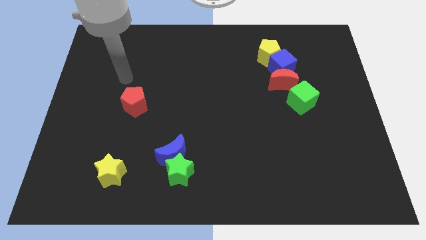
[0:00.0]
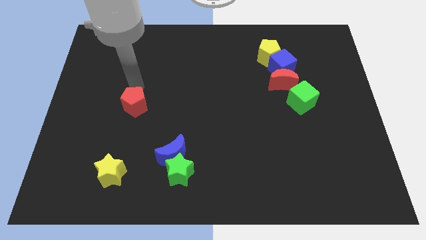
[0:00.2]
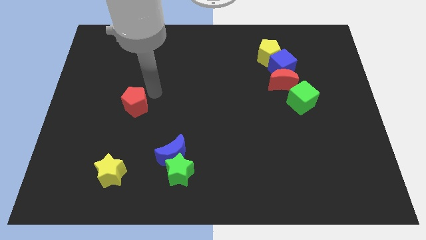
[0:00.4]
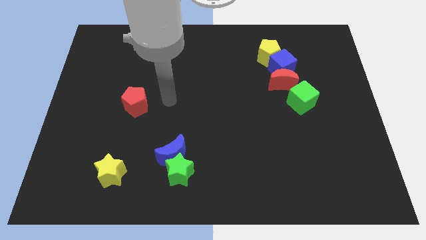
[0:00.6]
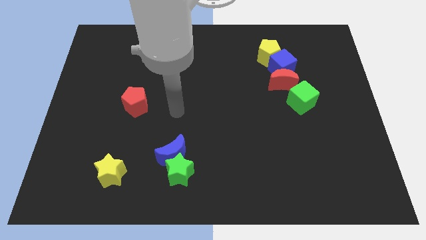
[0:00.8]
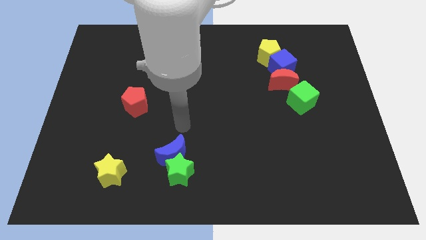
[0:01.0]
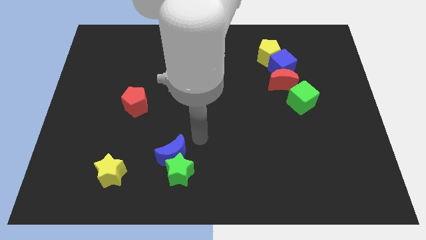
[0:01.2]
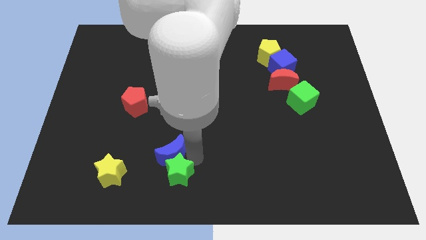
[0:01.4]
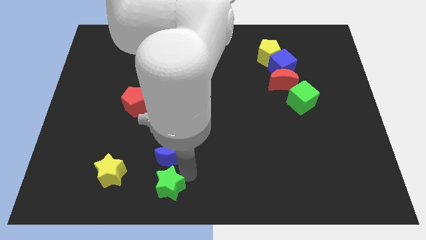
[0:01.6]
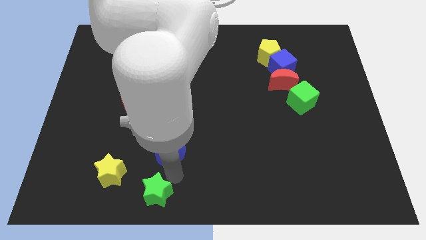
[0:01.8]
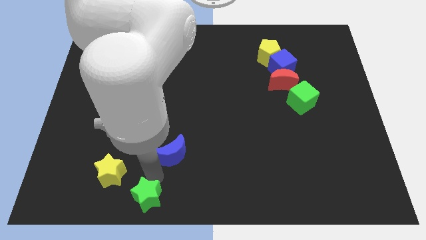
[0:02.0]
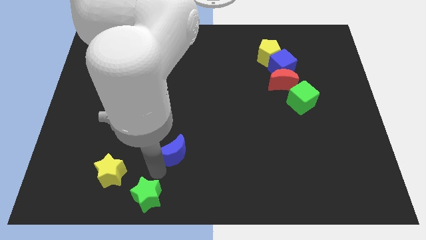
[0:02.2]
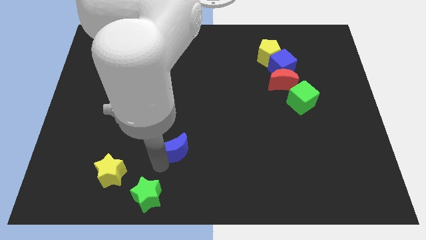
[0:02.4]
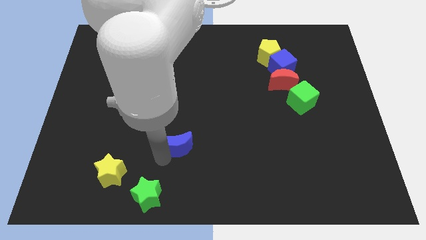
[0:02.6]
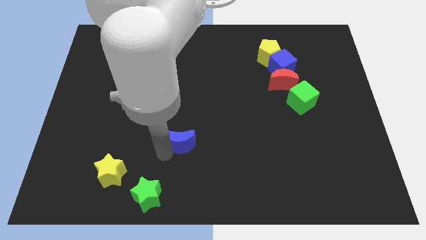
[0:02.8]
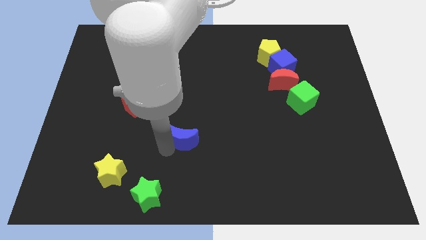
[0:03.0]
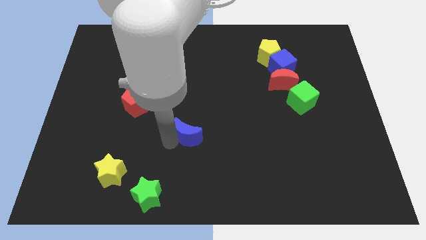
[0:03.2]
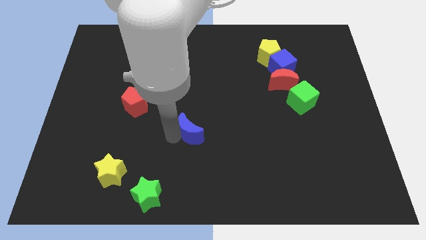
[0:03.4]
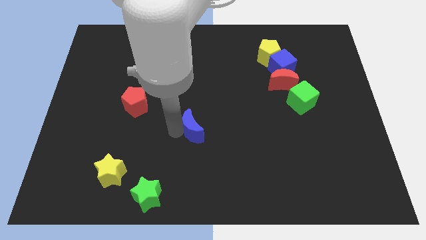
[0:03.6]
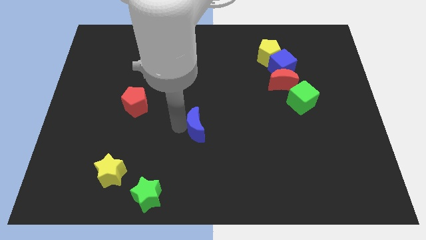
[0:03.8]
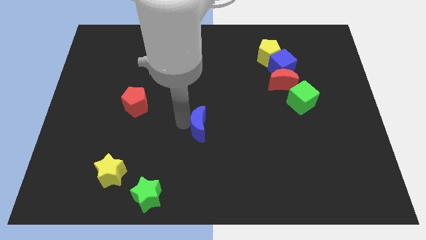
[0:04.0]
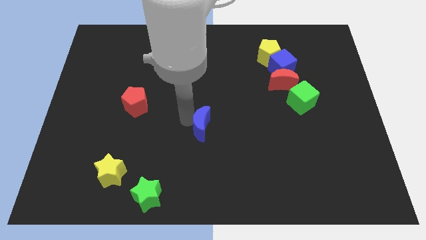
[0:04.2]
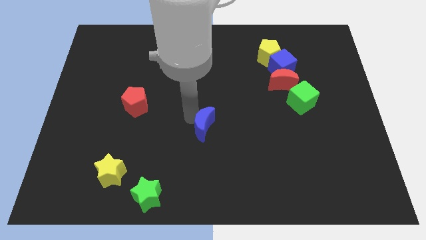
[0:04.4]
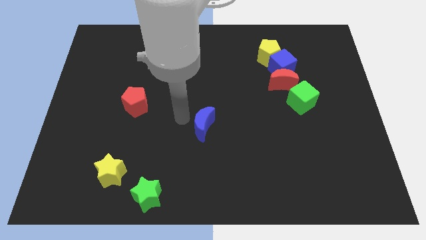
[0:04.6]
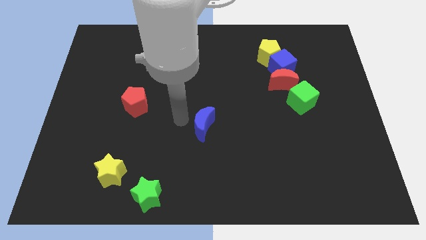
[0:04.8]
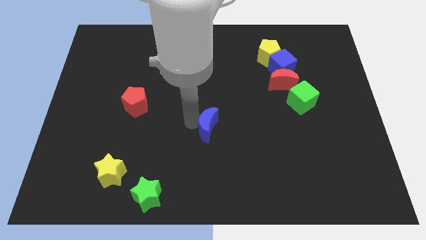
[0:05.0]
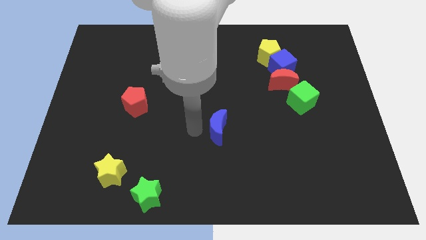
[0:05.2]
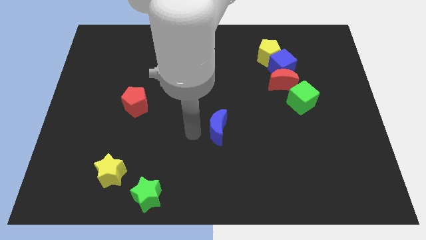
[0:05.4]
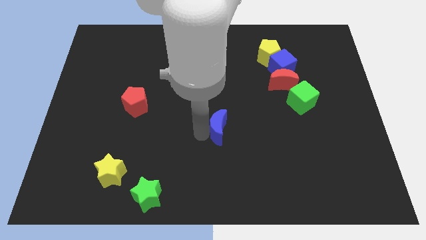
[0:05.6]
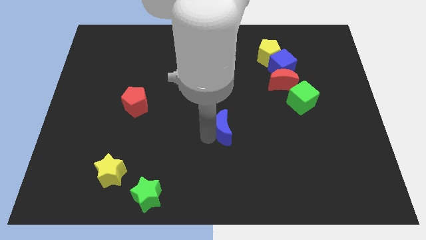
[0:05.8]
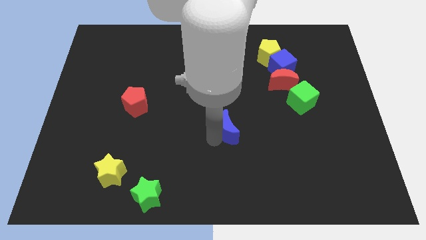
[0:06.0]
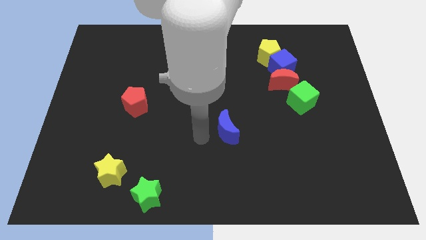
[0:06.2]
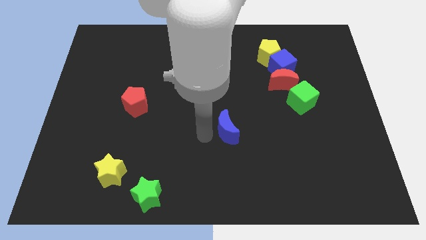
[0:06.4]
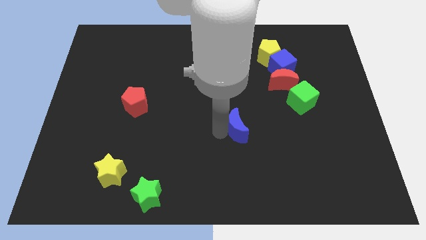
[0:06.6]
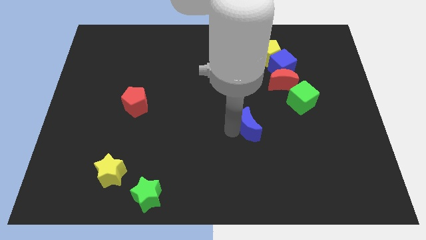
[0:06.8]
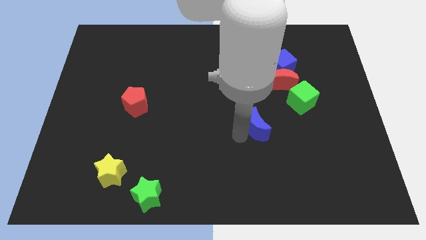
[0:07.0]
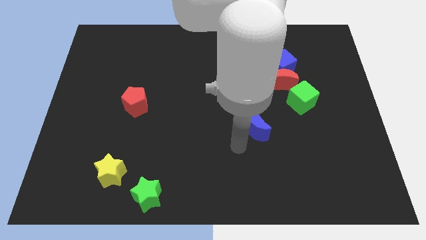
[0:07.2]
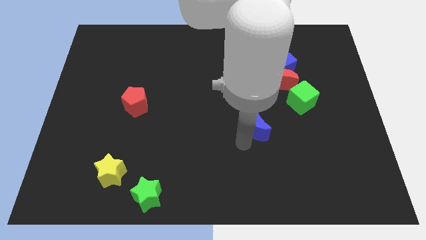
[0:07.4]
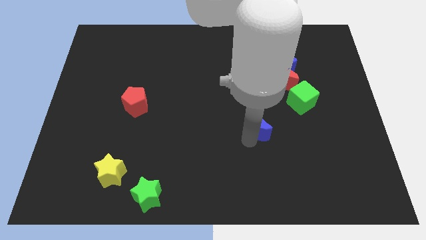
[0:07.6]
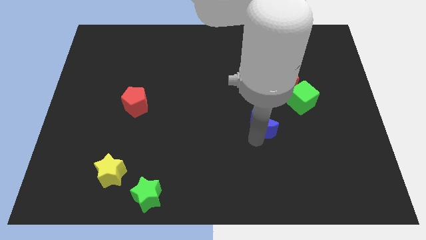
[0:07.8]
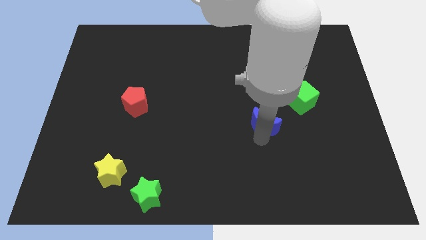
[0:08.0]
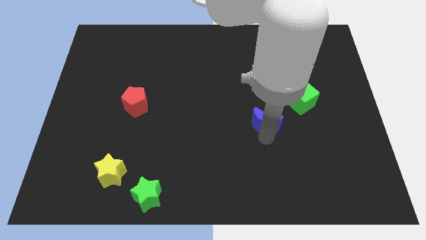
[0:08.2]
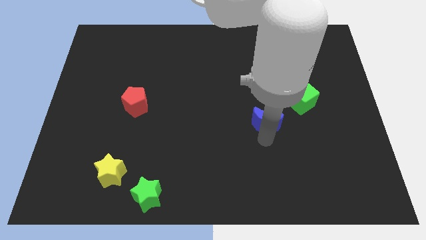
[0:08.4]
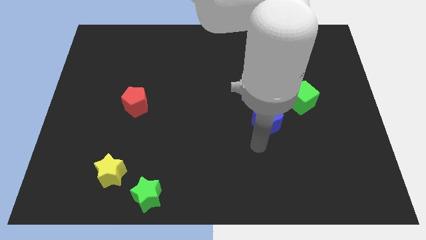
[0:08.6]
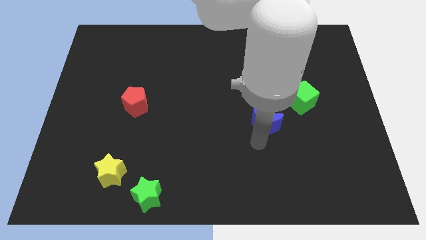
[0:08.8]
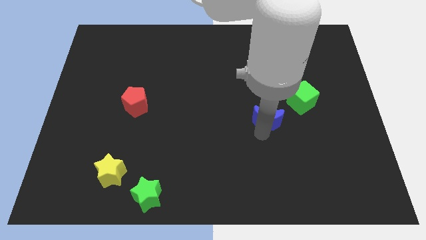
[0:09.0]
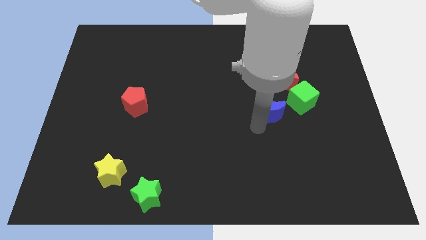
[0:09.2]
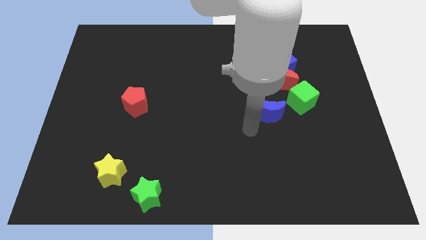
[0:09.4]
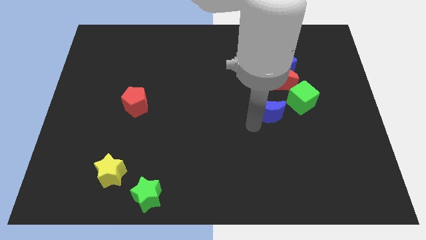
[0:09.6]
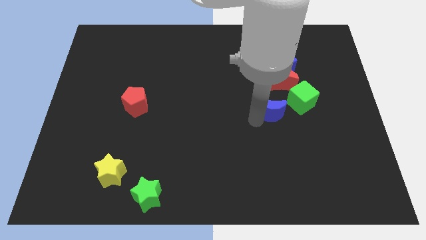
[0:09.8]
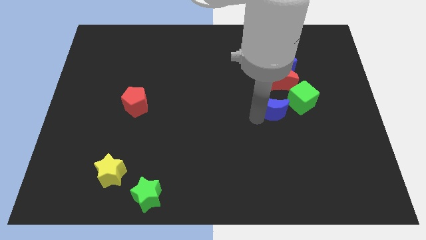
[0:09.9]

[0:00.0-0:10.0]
put the blue moon below the blue cube

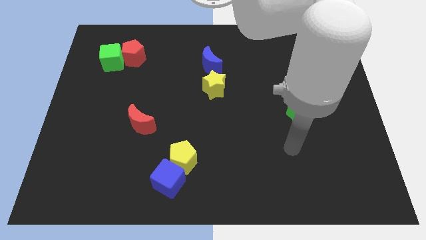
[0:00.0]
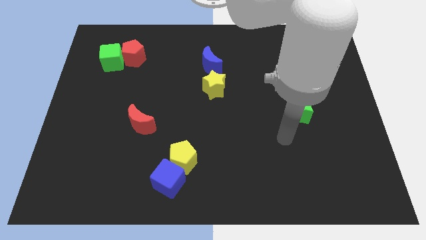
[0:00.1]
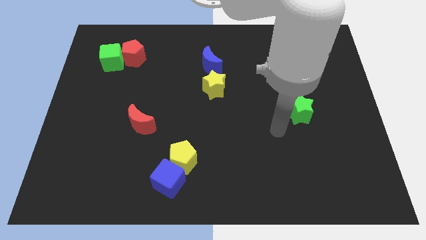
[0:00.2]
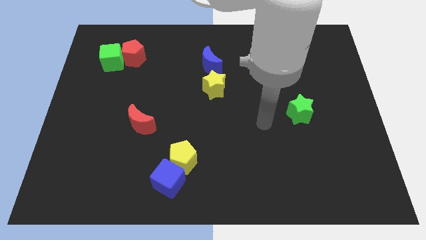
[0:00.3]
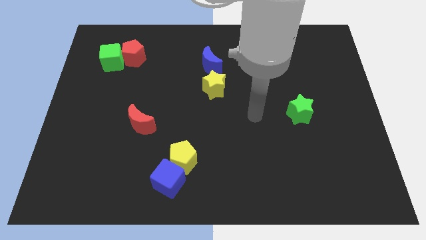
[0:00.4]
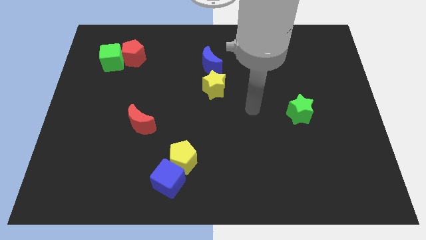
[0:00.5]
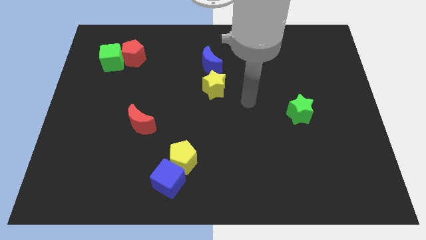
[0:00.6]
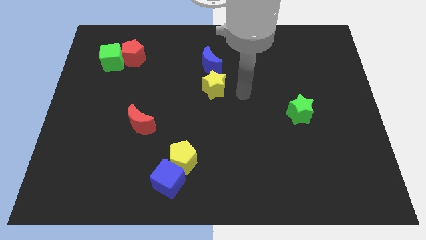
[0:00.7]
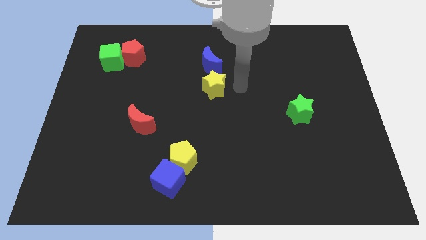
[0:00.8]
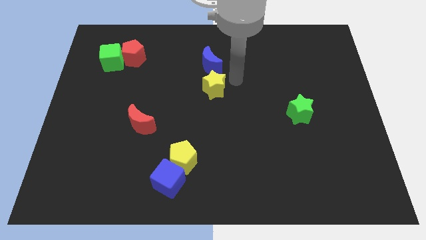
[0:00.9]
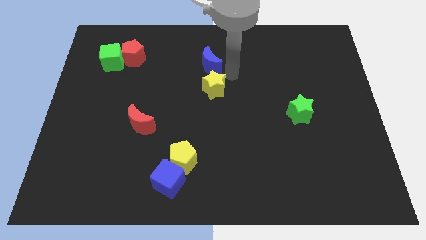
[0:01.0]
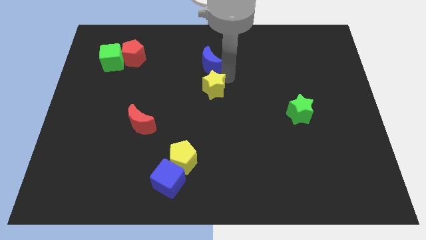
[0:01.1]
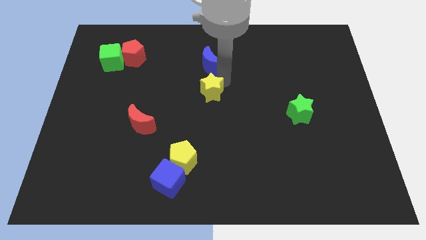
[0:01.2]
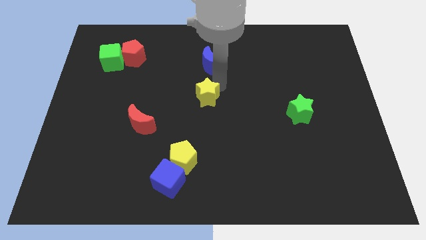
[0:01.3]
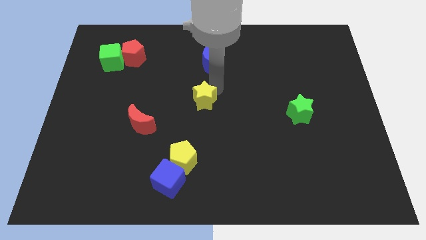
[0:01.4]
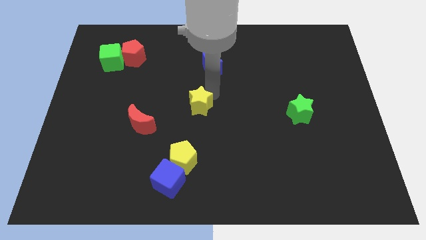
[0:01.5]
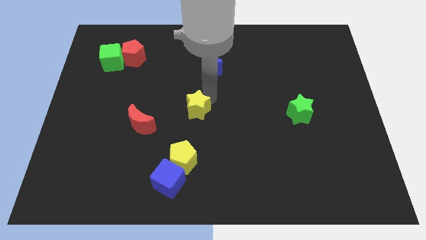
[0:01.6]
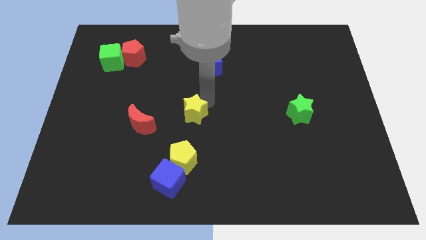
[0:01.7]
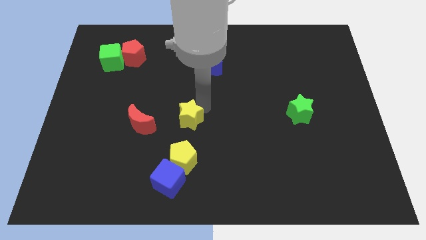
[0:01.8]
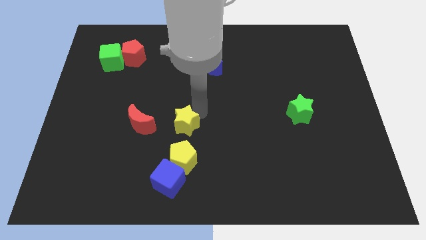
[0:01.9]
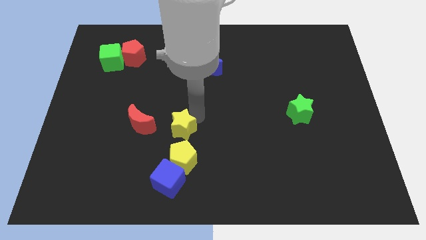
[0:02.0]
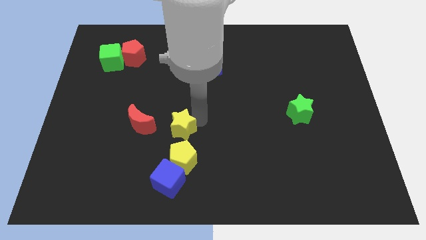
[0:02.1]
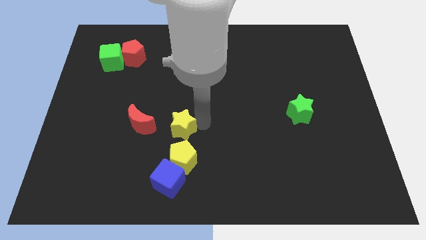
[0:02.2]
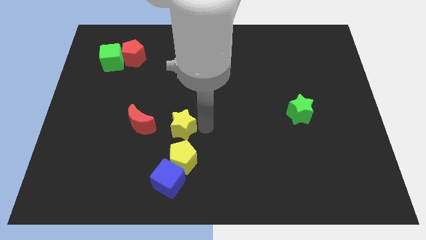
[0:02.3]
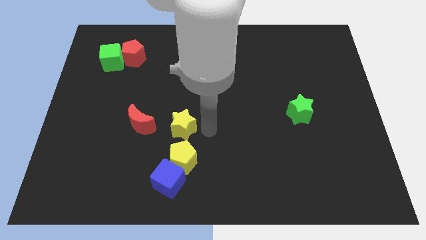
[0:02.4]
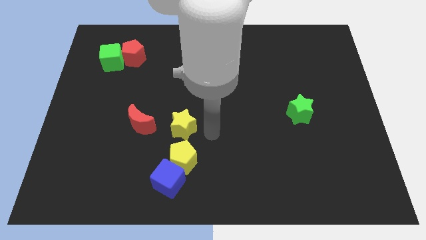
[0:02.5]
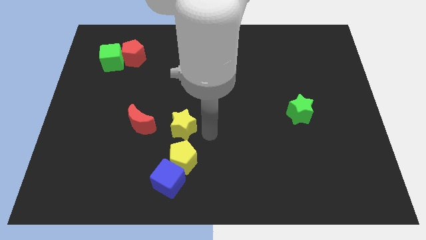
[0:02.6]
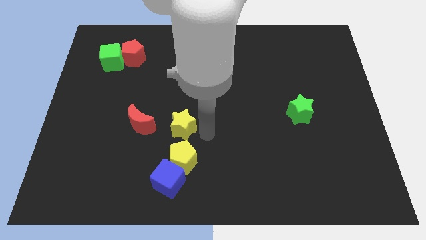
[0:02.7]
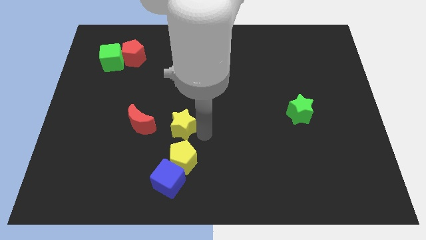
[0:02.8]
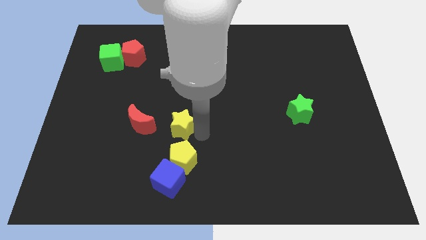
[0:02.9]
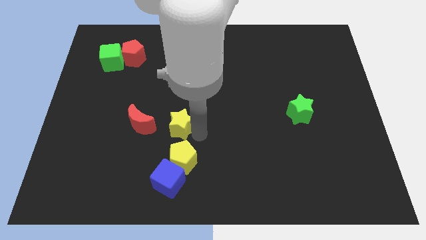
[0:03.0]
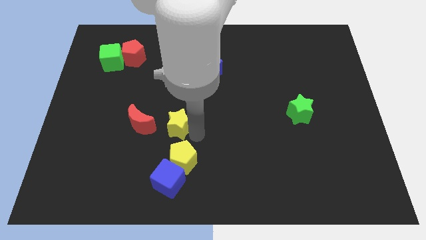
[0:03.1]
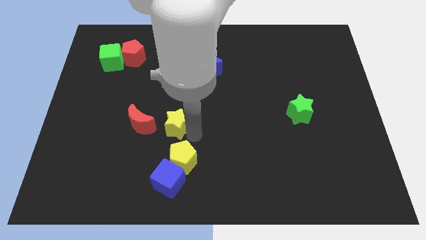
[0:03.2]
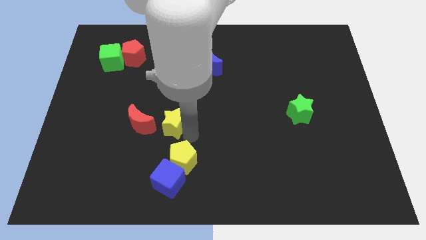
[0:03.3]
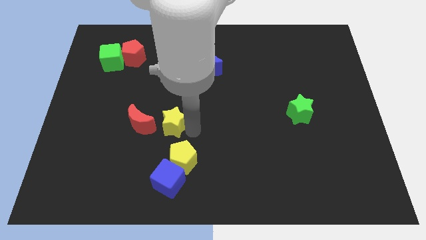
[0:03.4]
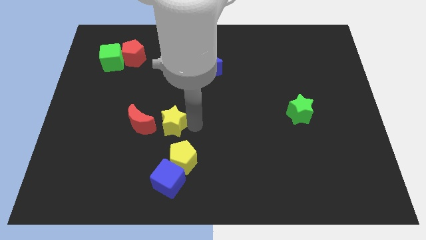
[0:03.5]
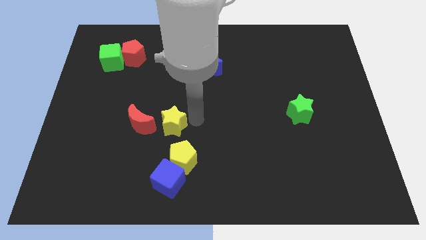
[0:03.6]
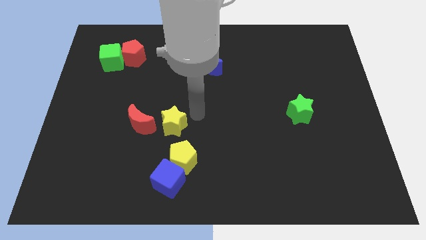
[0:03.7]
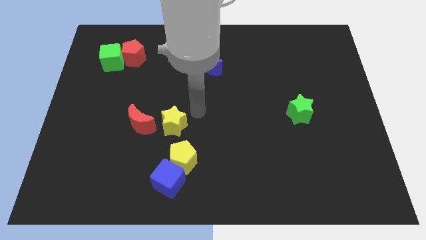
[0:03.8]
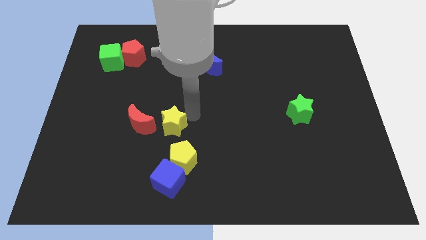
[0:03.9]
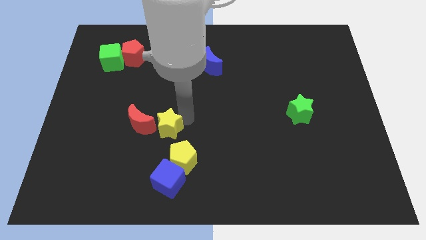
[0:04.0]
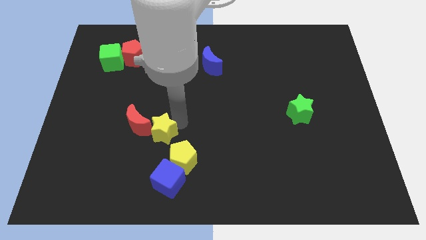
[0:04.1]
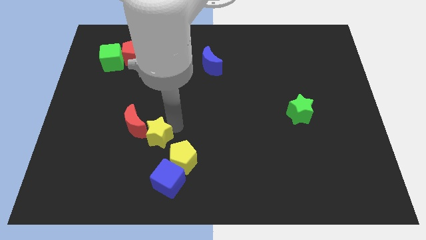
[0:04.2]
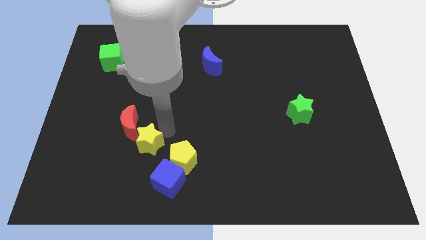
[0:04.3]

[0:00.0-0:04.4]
put the yellow star below the red moon
